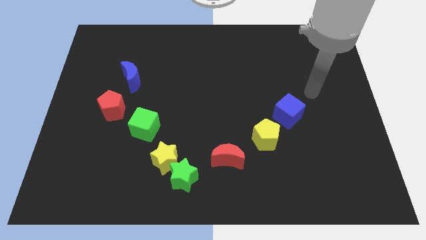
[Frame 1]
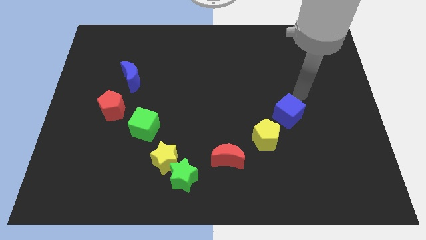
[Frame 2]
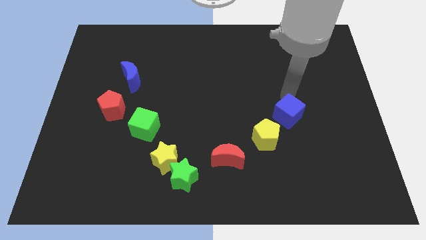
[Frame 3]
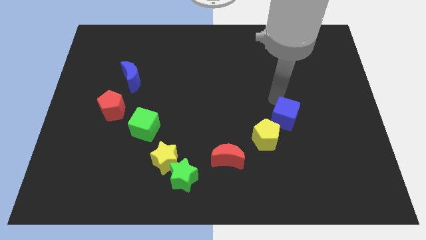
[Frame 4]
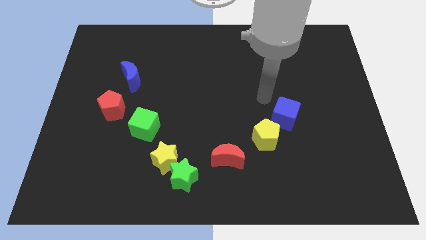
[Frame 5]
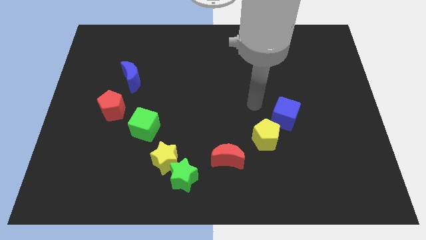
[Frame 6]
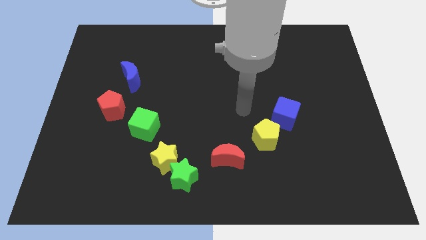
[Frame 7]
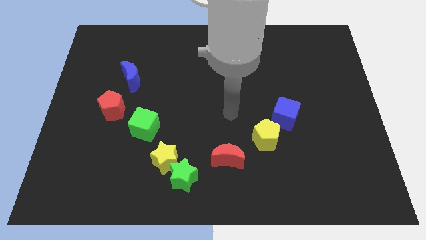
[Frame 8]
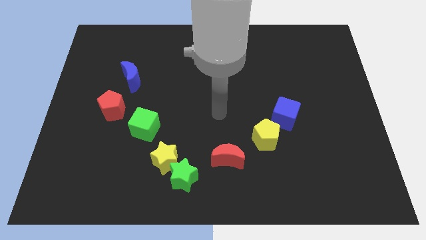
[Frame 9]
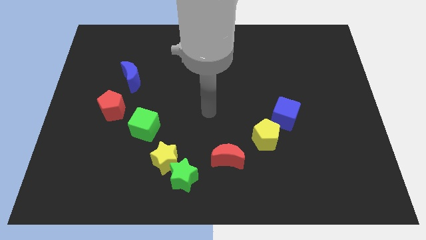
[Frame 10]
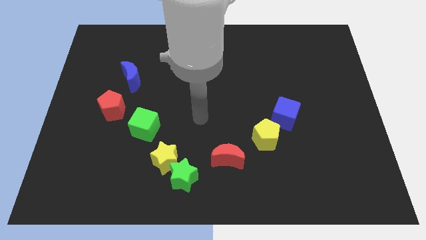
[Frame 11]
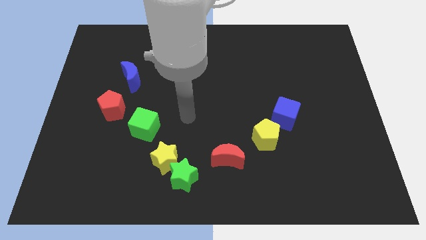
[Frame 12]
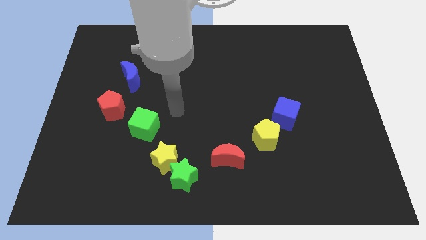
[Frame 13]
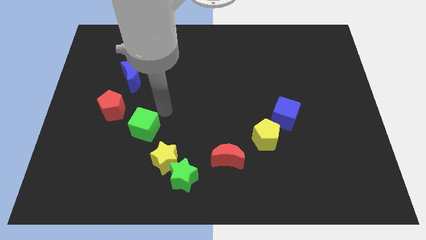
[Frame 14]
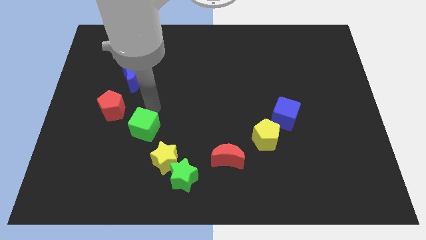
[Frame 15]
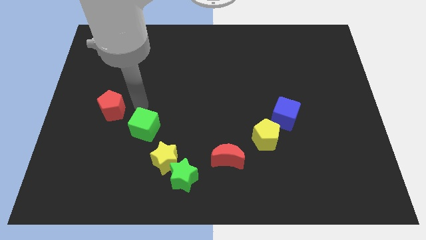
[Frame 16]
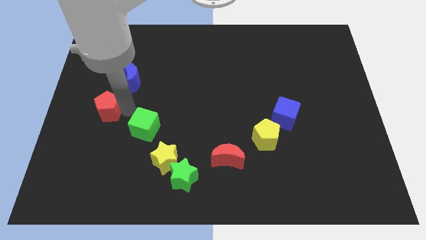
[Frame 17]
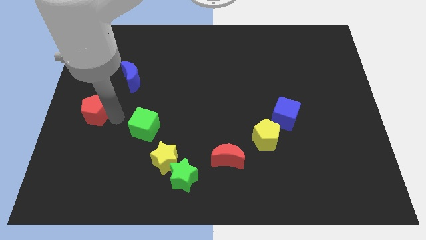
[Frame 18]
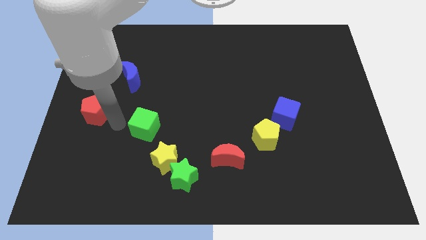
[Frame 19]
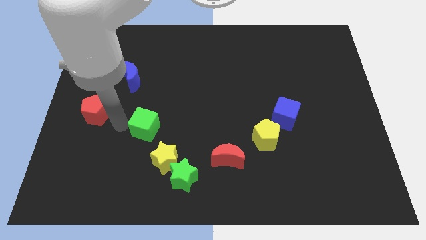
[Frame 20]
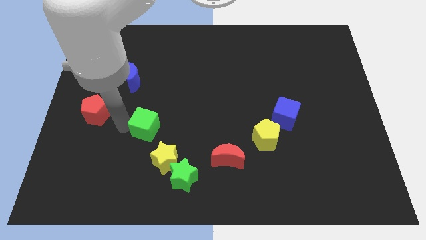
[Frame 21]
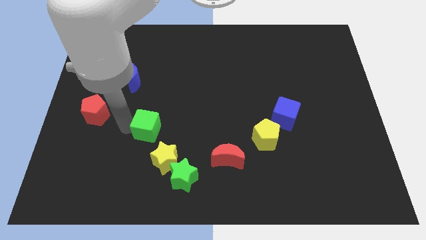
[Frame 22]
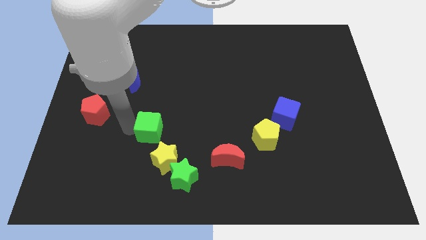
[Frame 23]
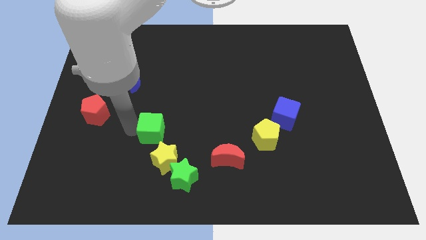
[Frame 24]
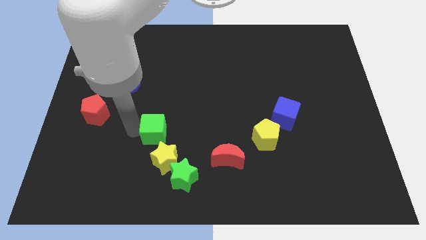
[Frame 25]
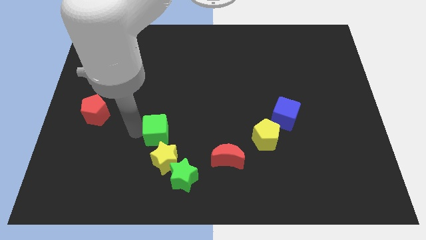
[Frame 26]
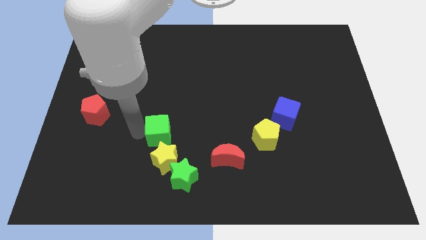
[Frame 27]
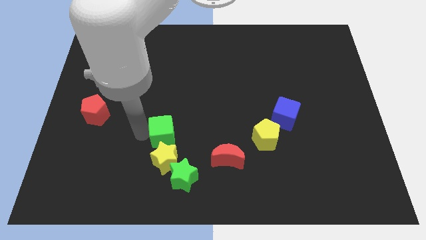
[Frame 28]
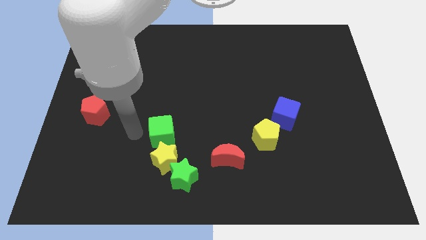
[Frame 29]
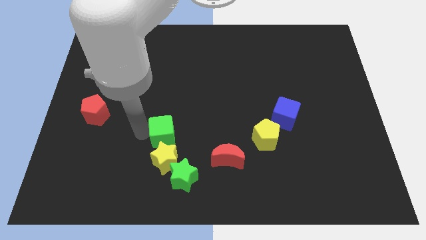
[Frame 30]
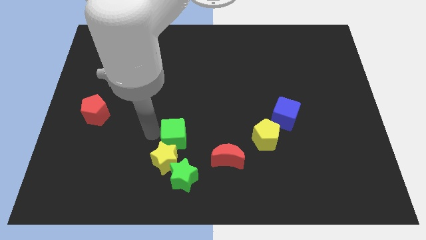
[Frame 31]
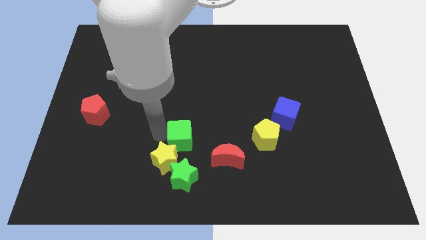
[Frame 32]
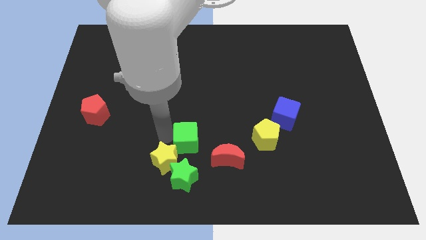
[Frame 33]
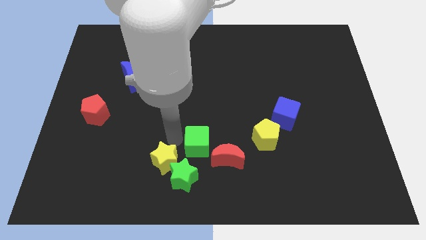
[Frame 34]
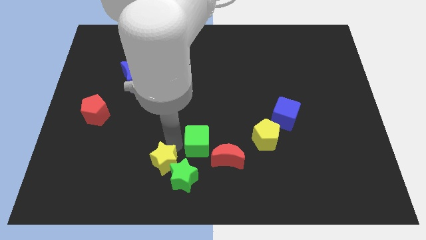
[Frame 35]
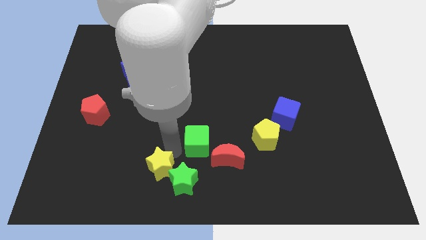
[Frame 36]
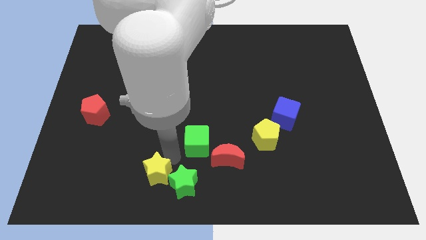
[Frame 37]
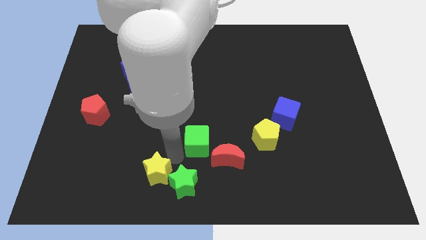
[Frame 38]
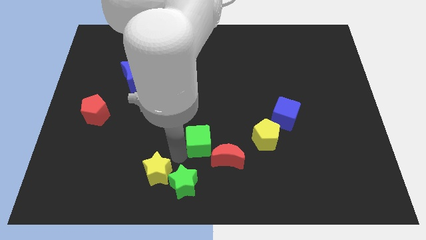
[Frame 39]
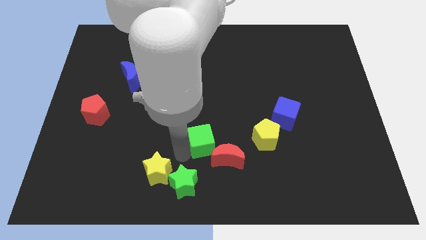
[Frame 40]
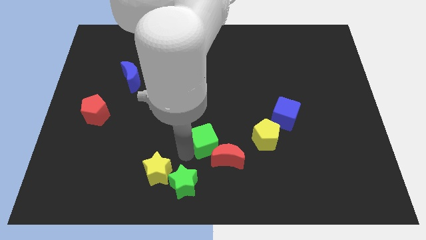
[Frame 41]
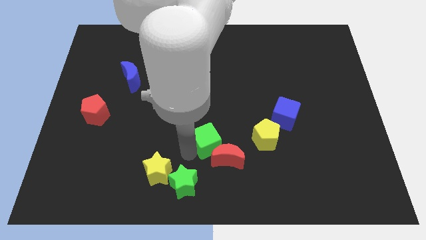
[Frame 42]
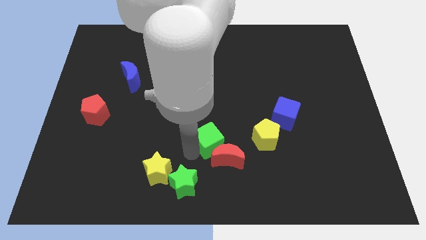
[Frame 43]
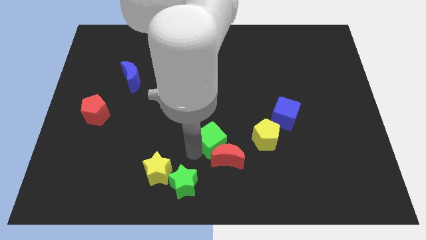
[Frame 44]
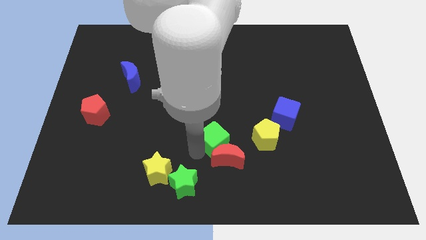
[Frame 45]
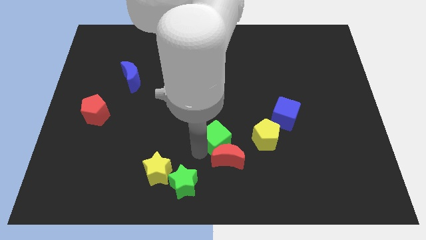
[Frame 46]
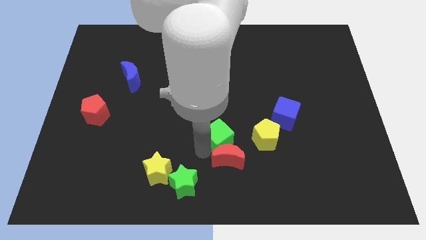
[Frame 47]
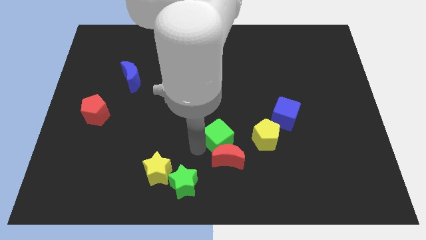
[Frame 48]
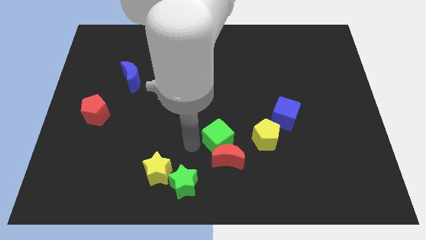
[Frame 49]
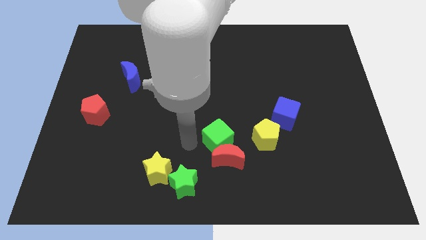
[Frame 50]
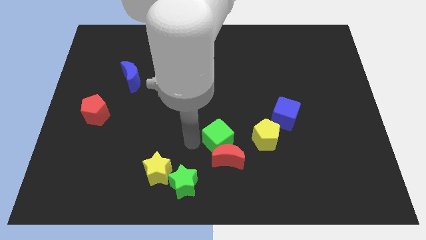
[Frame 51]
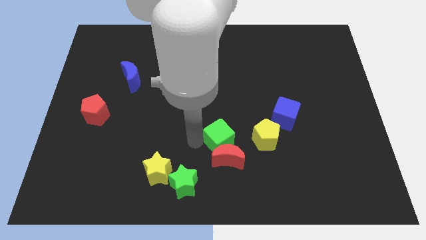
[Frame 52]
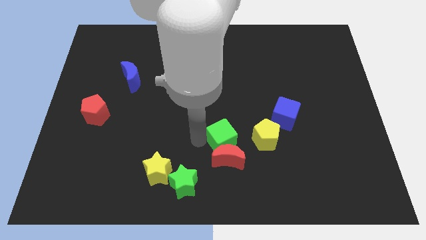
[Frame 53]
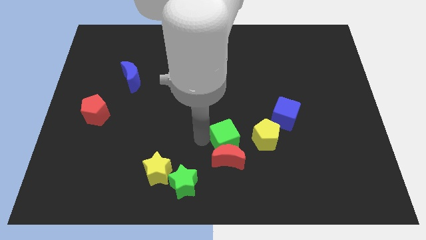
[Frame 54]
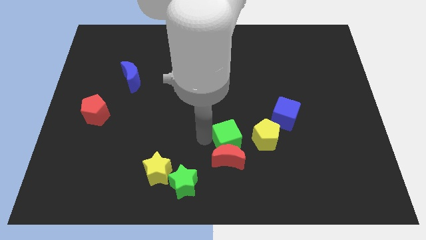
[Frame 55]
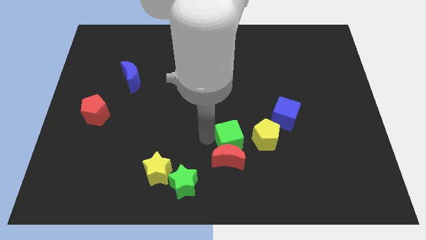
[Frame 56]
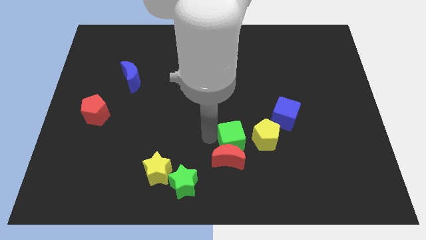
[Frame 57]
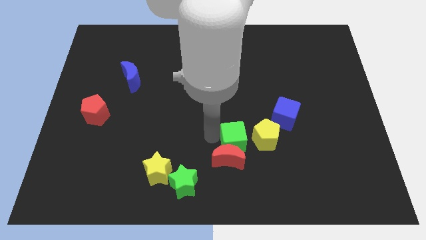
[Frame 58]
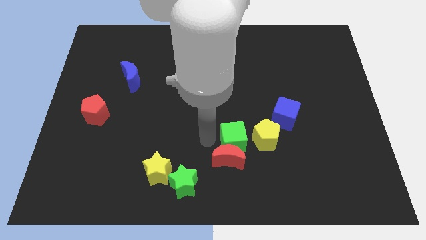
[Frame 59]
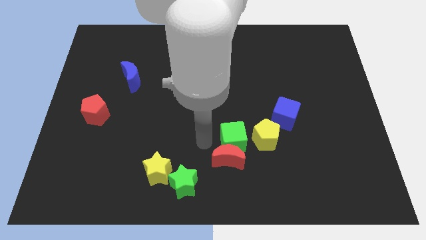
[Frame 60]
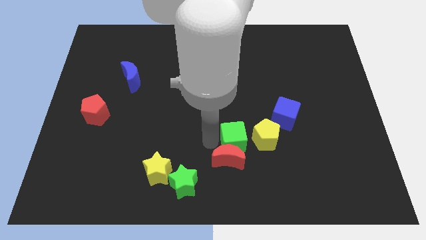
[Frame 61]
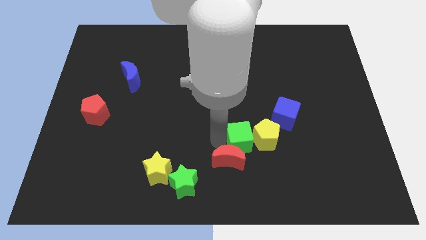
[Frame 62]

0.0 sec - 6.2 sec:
push the green cube next to the yellow pentagon
